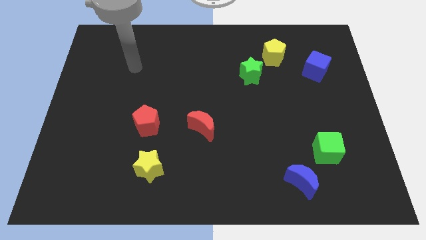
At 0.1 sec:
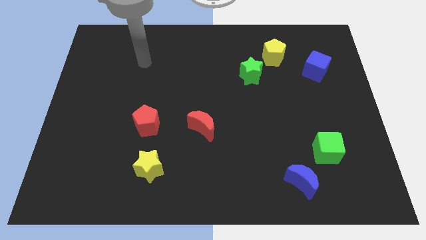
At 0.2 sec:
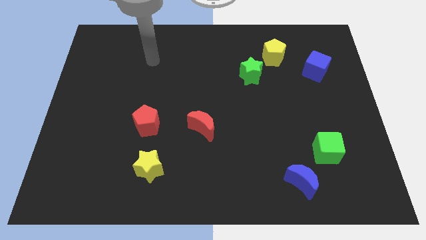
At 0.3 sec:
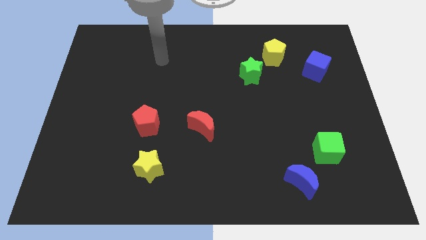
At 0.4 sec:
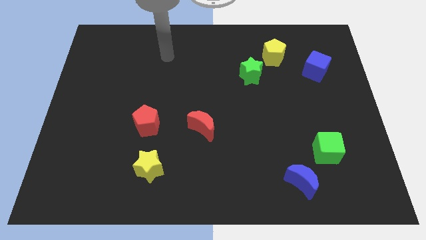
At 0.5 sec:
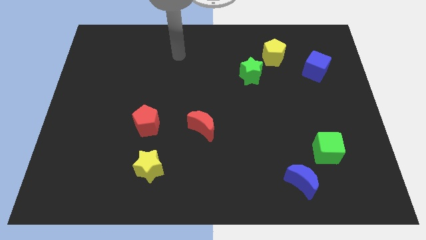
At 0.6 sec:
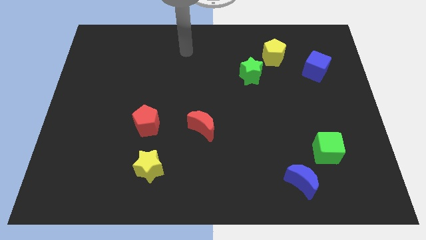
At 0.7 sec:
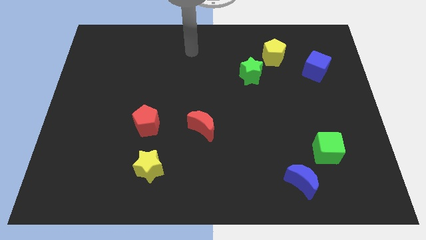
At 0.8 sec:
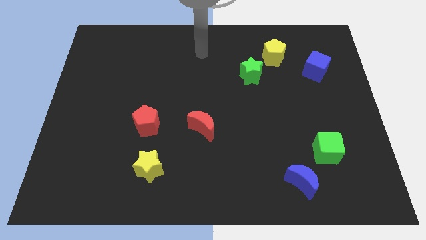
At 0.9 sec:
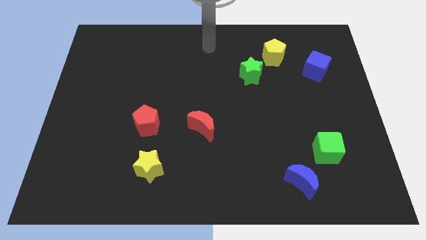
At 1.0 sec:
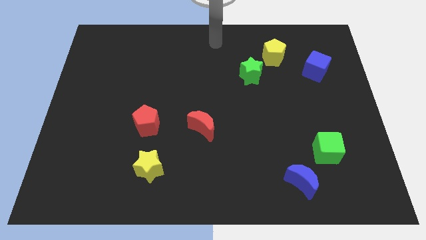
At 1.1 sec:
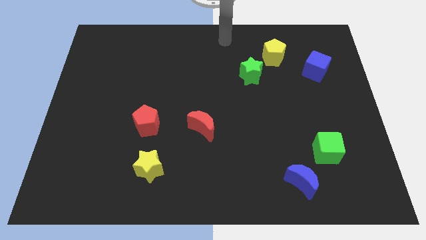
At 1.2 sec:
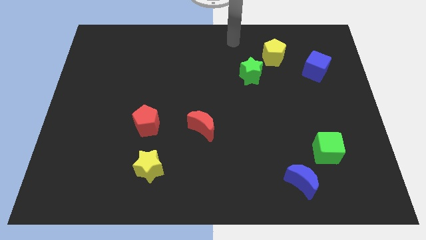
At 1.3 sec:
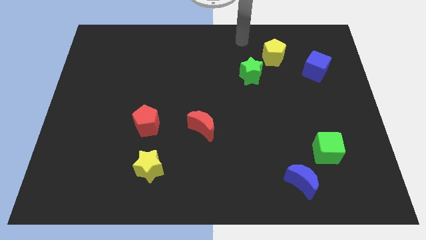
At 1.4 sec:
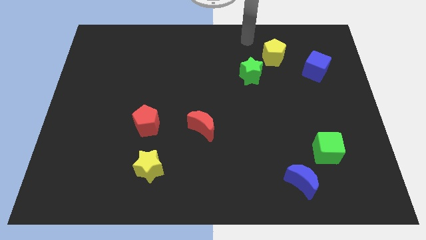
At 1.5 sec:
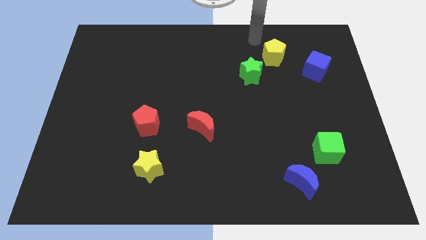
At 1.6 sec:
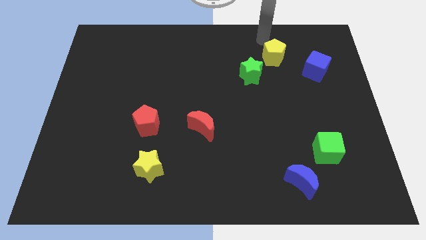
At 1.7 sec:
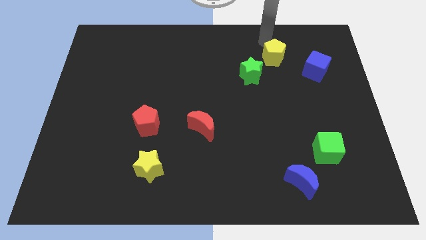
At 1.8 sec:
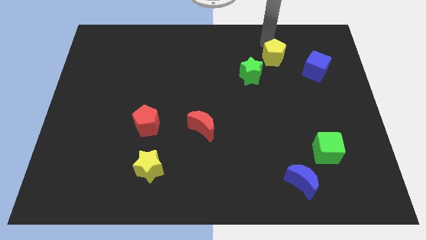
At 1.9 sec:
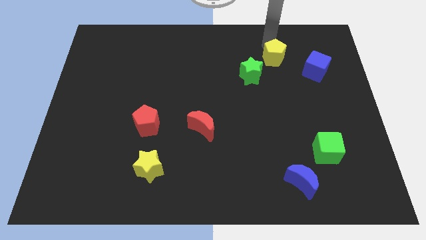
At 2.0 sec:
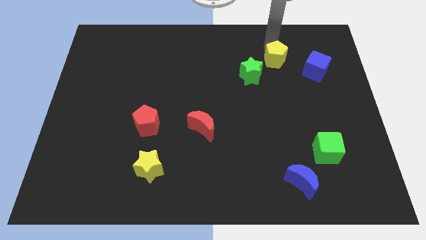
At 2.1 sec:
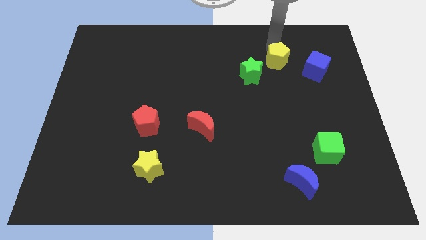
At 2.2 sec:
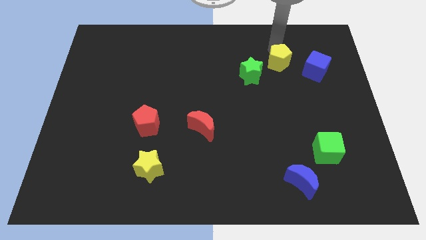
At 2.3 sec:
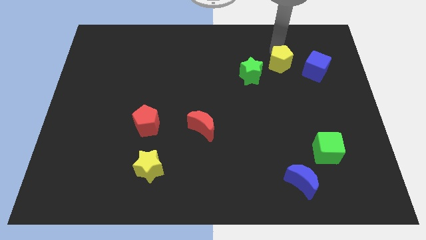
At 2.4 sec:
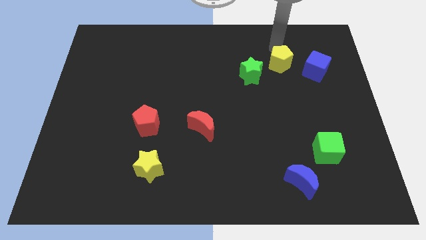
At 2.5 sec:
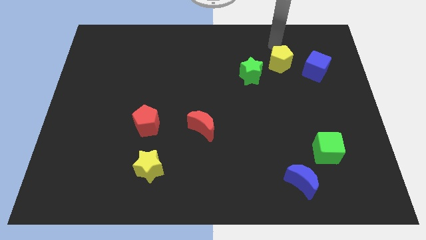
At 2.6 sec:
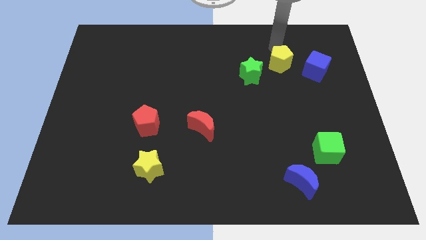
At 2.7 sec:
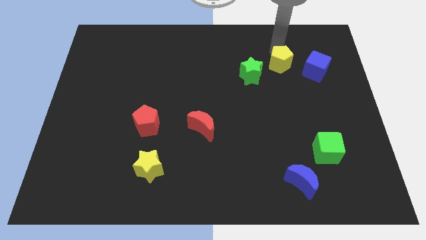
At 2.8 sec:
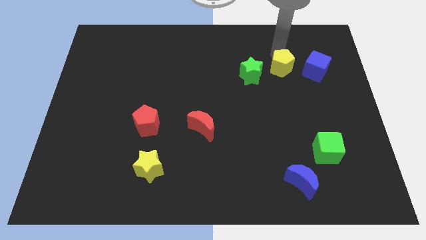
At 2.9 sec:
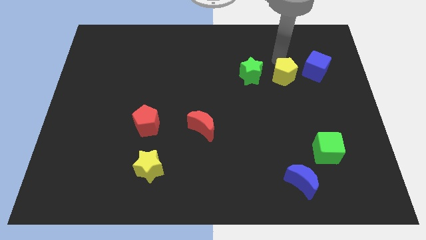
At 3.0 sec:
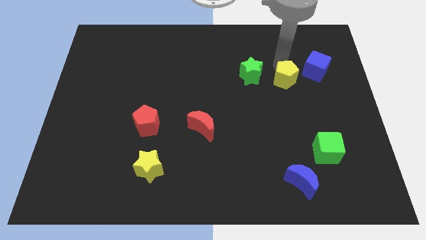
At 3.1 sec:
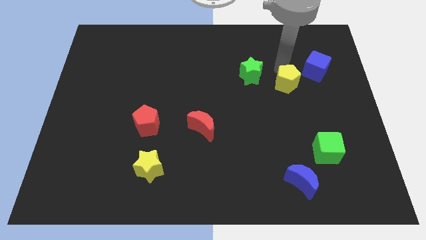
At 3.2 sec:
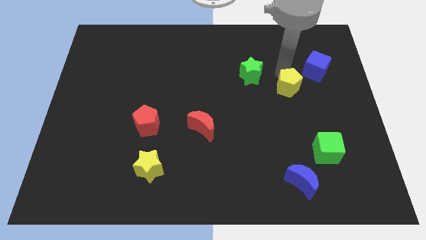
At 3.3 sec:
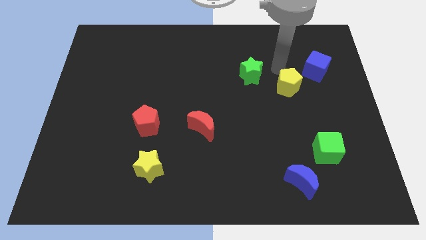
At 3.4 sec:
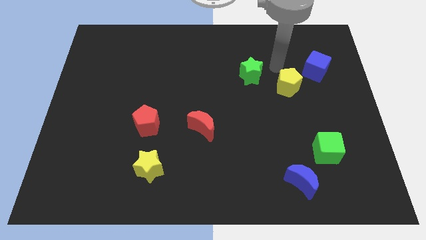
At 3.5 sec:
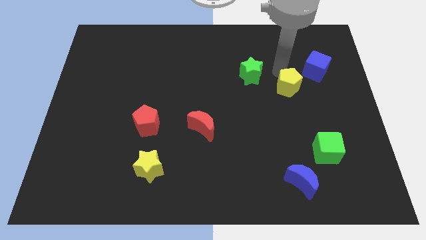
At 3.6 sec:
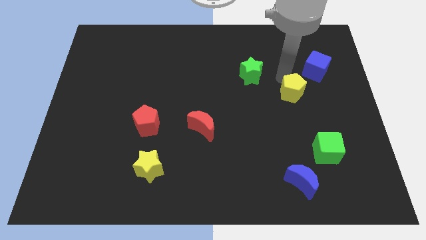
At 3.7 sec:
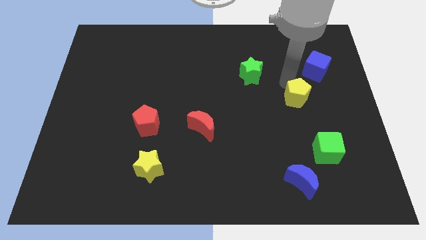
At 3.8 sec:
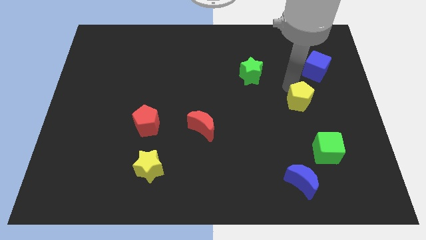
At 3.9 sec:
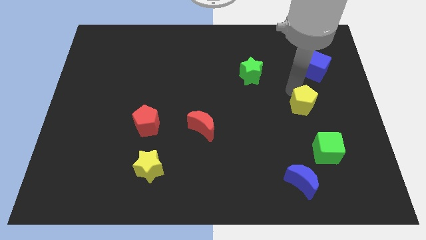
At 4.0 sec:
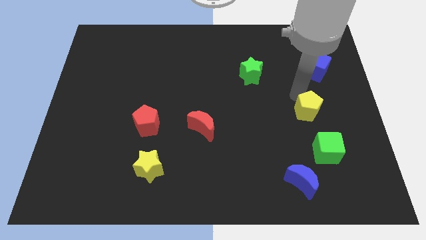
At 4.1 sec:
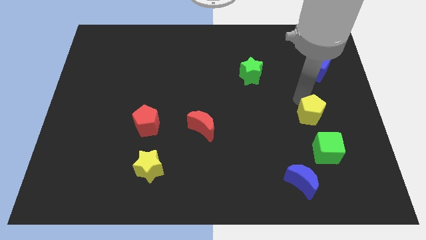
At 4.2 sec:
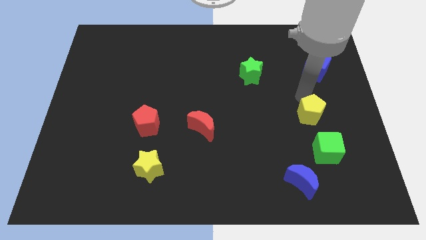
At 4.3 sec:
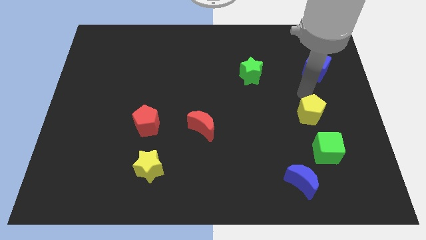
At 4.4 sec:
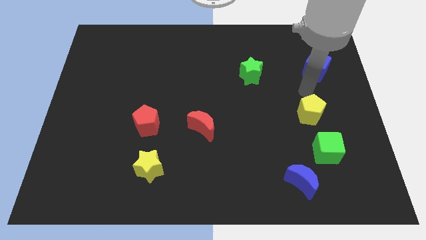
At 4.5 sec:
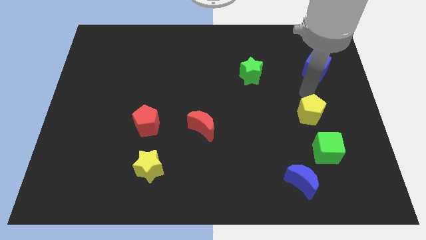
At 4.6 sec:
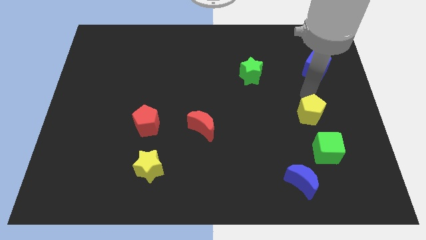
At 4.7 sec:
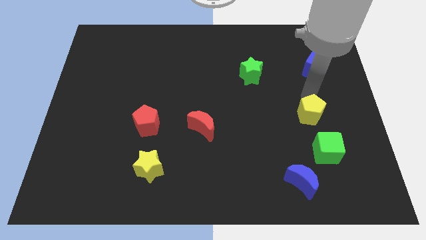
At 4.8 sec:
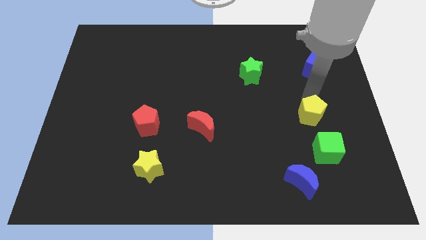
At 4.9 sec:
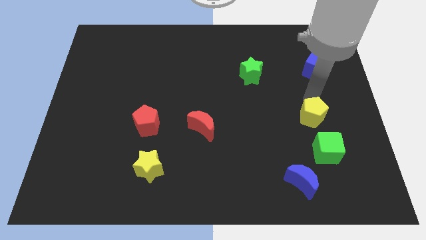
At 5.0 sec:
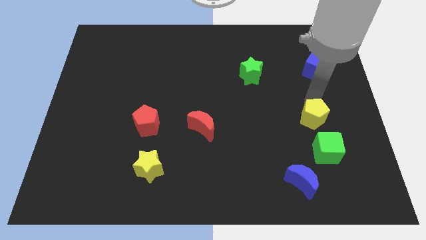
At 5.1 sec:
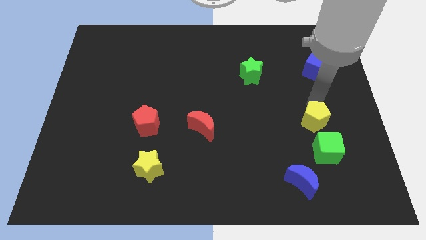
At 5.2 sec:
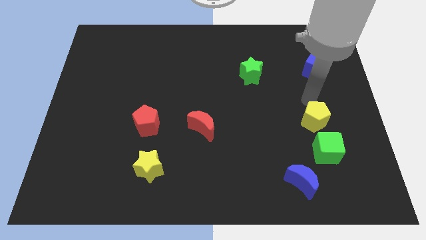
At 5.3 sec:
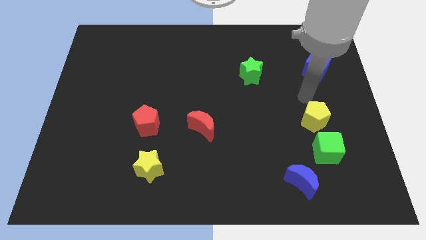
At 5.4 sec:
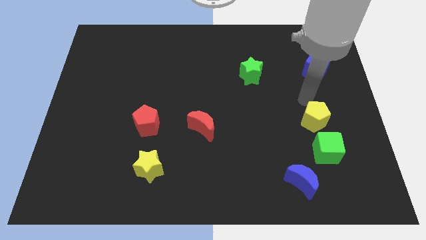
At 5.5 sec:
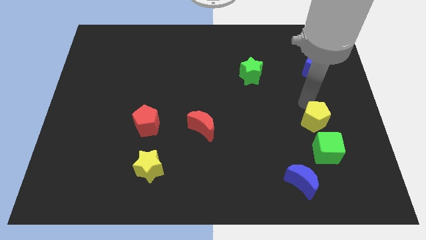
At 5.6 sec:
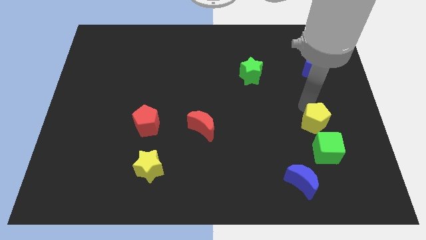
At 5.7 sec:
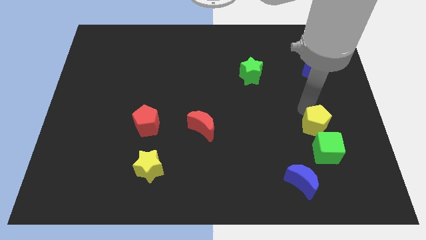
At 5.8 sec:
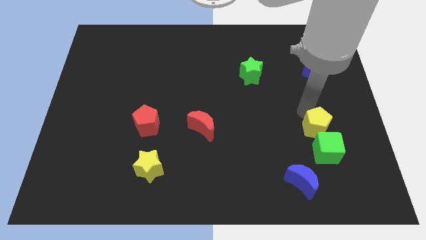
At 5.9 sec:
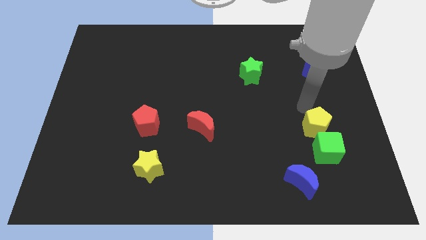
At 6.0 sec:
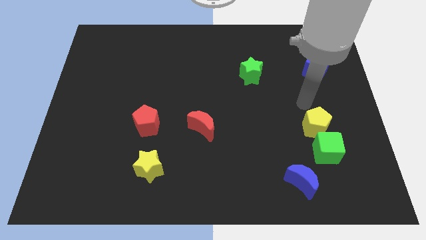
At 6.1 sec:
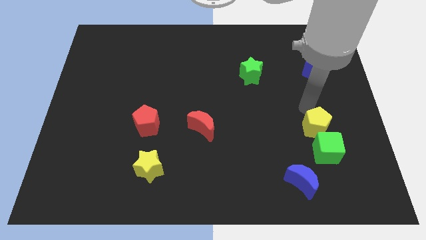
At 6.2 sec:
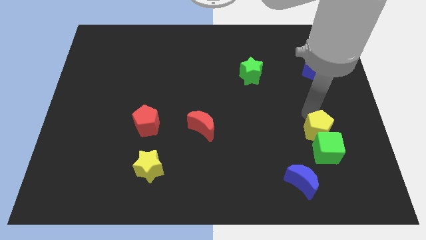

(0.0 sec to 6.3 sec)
push the yellow pentagon next to the green cube

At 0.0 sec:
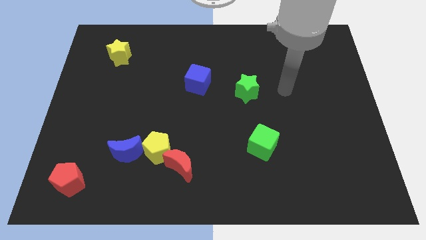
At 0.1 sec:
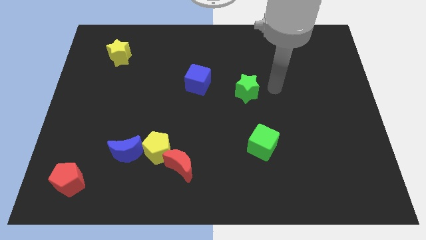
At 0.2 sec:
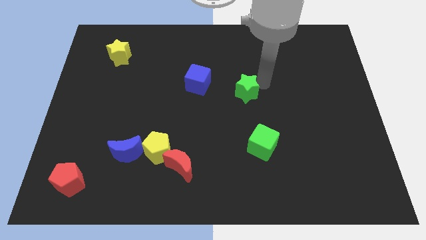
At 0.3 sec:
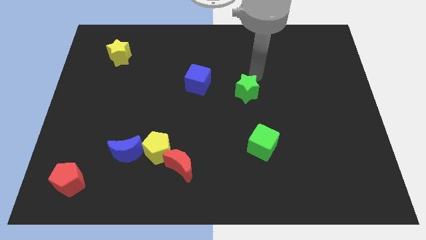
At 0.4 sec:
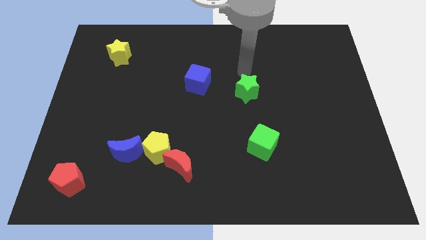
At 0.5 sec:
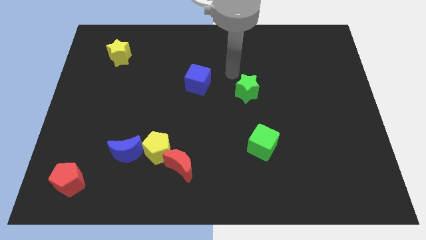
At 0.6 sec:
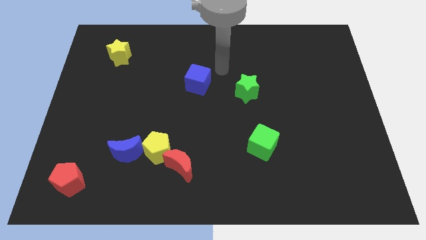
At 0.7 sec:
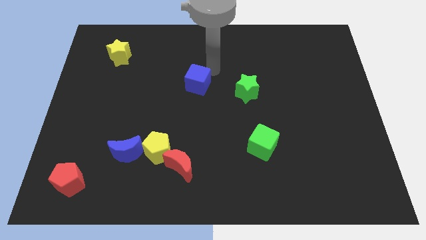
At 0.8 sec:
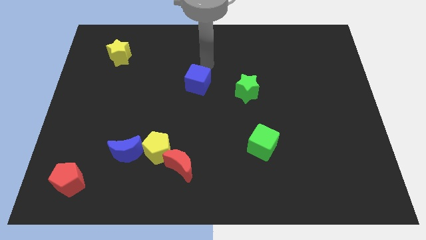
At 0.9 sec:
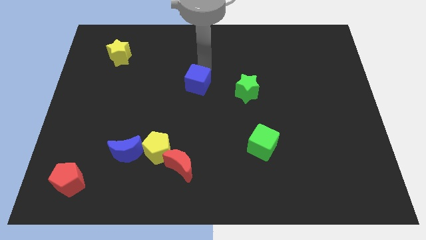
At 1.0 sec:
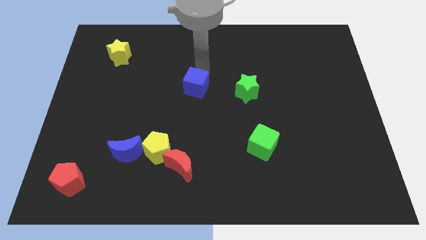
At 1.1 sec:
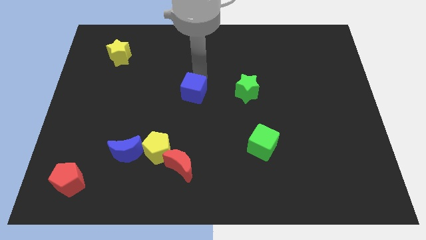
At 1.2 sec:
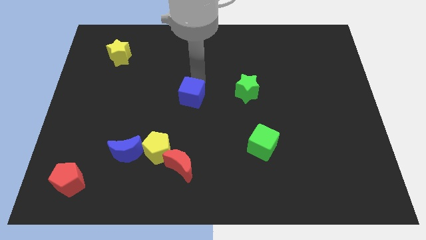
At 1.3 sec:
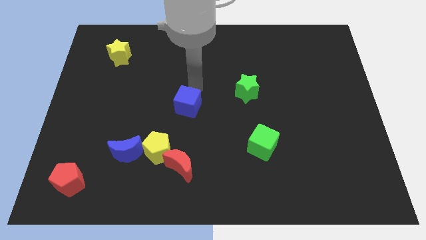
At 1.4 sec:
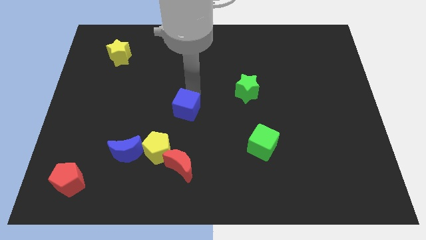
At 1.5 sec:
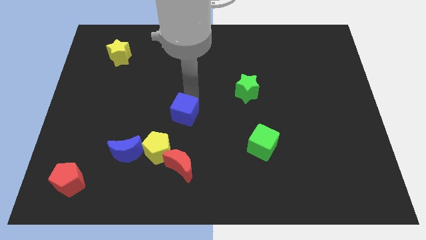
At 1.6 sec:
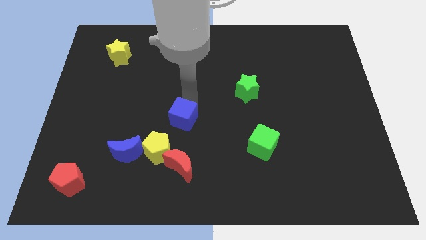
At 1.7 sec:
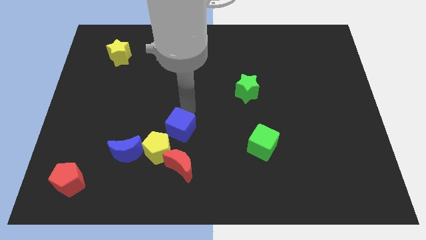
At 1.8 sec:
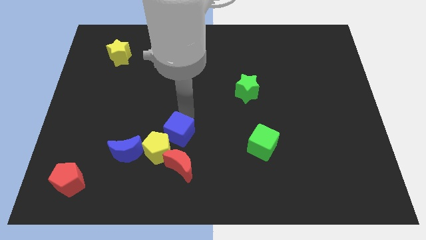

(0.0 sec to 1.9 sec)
put the blue cube towards the yellow pentagon
